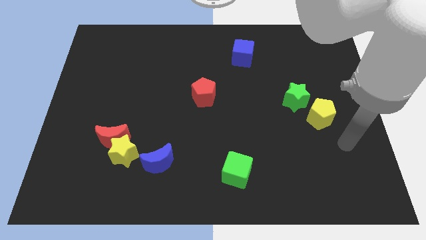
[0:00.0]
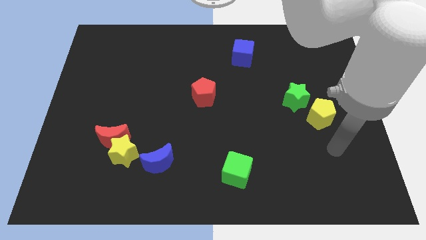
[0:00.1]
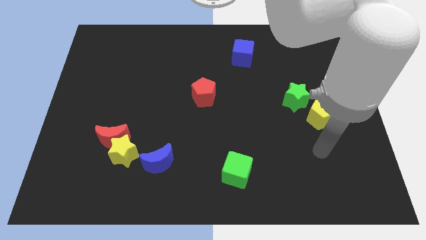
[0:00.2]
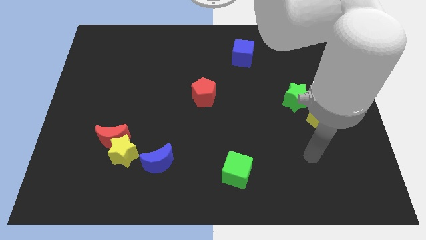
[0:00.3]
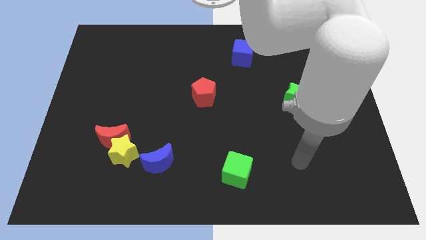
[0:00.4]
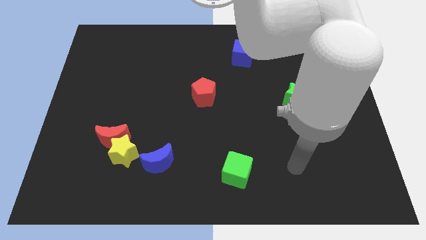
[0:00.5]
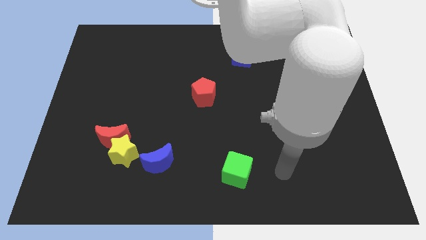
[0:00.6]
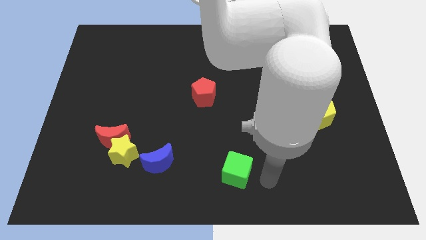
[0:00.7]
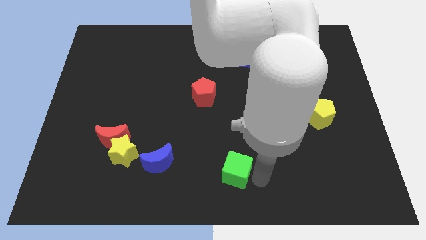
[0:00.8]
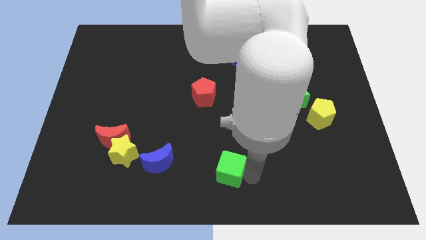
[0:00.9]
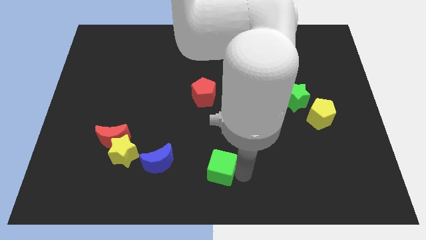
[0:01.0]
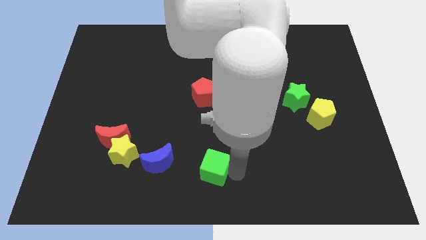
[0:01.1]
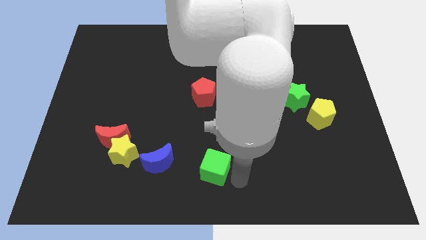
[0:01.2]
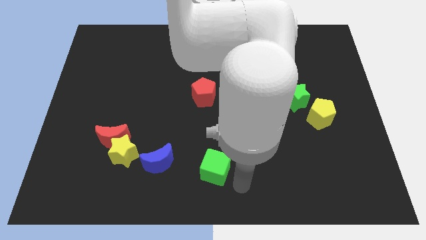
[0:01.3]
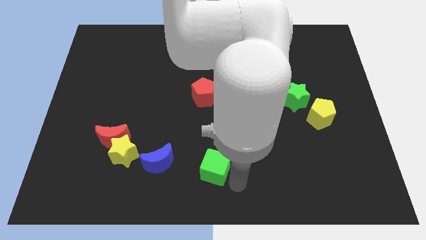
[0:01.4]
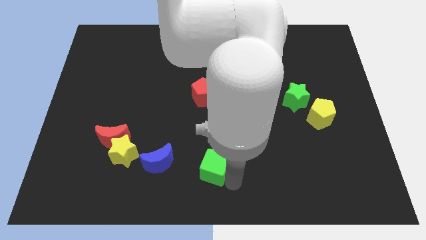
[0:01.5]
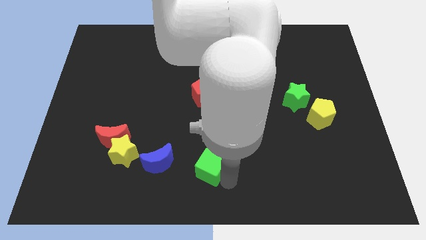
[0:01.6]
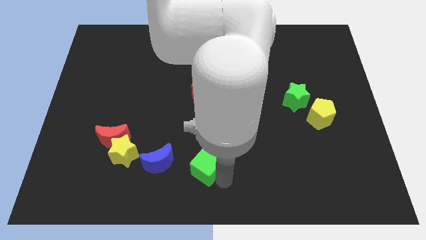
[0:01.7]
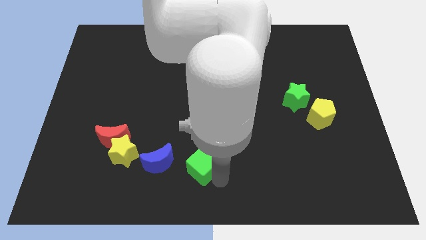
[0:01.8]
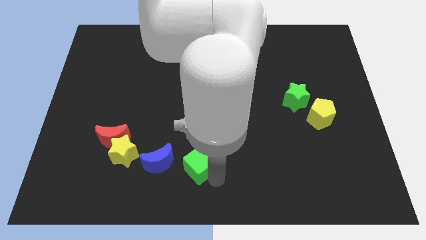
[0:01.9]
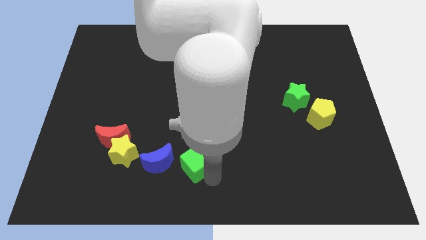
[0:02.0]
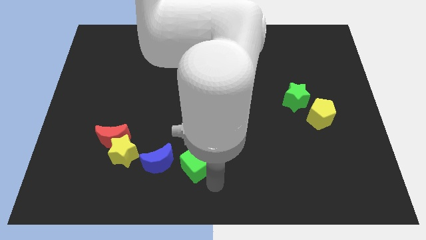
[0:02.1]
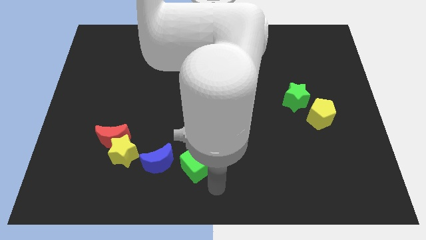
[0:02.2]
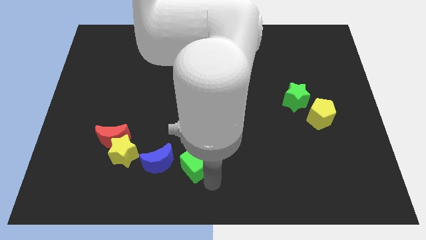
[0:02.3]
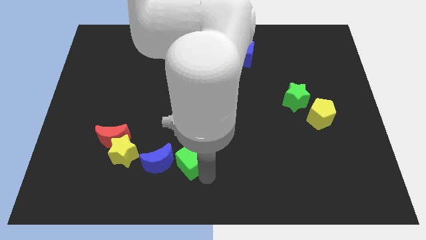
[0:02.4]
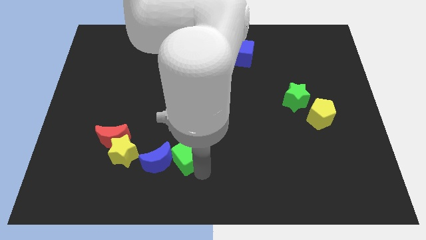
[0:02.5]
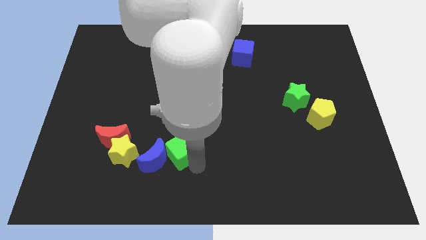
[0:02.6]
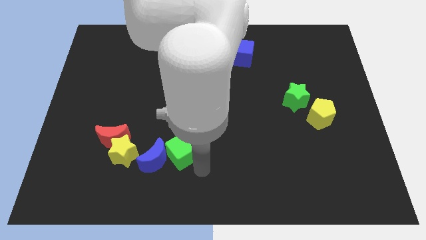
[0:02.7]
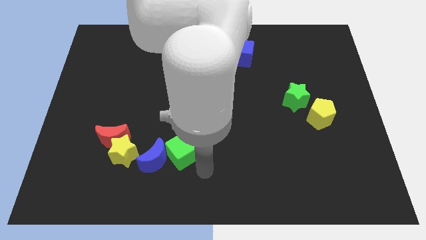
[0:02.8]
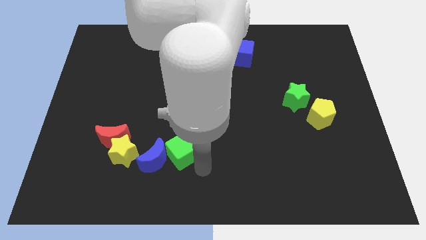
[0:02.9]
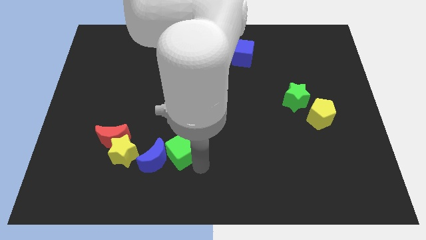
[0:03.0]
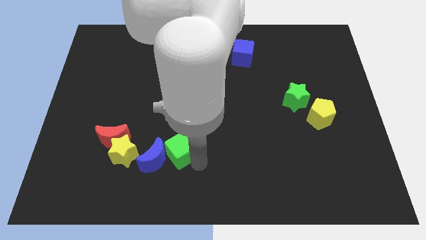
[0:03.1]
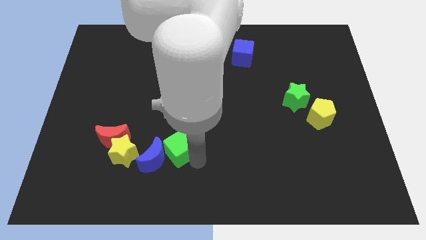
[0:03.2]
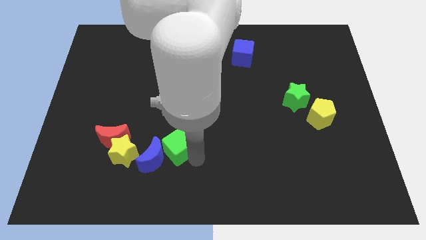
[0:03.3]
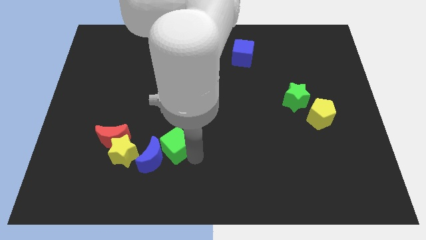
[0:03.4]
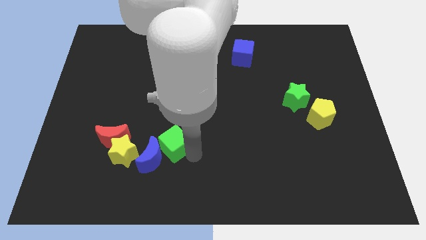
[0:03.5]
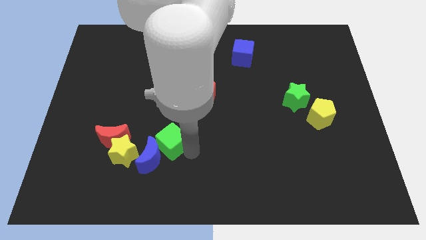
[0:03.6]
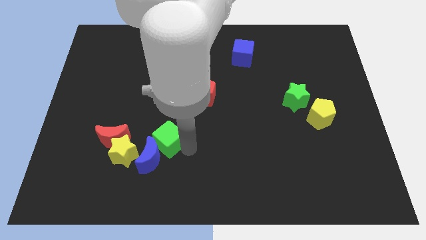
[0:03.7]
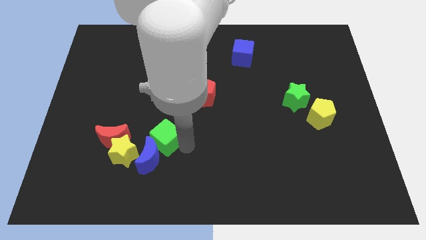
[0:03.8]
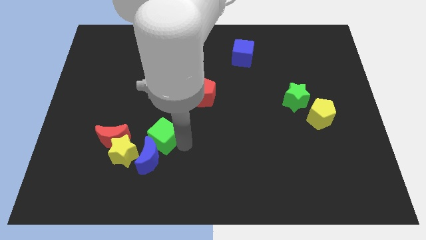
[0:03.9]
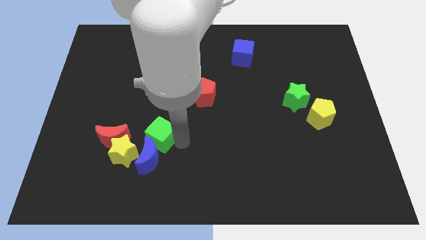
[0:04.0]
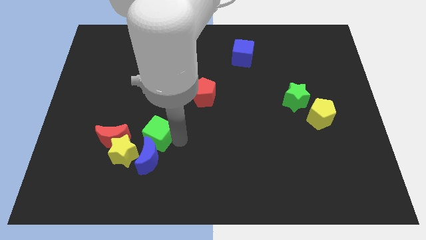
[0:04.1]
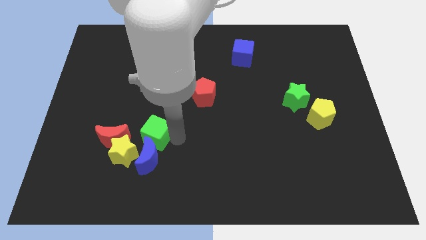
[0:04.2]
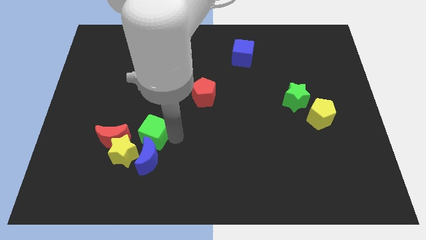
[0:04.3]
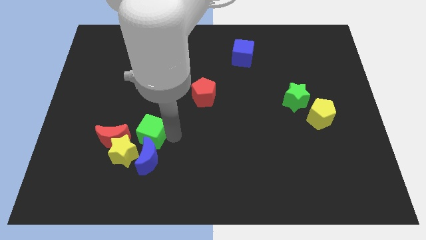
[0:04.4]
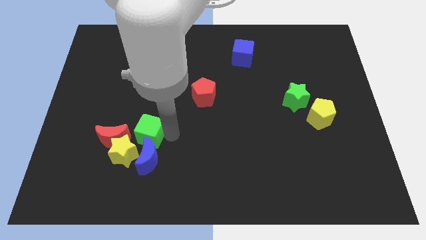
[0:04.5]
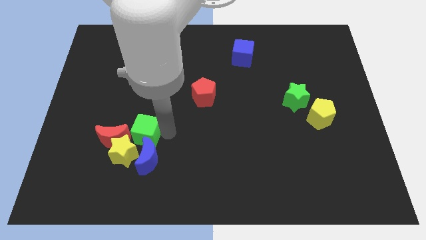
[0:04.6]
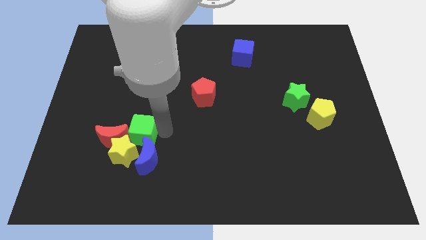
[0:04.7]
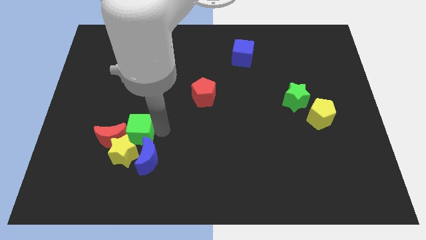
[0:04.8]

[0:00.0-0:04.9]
move the green cube to the red moon

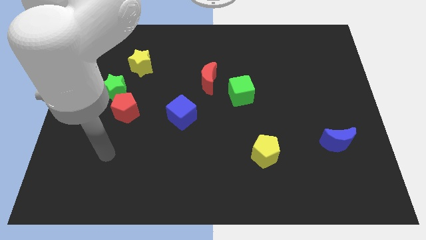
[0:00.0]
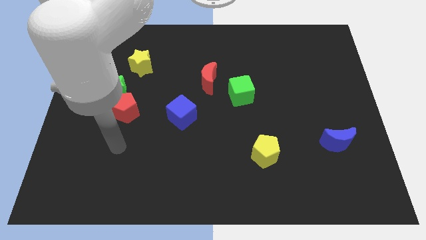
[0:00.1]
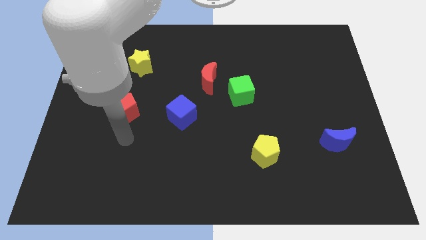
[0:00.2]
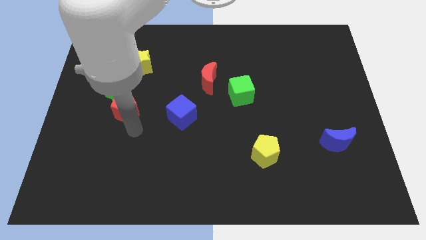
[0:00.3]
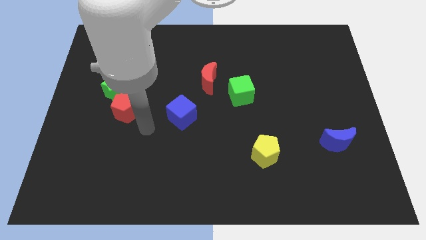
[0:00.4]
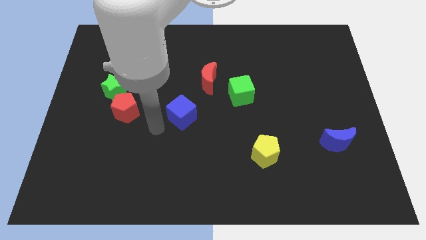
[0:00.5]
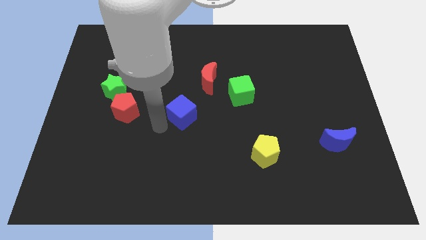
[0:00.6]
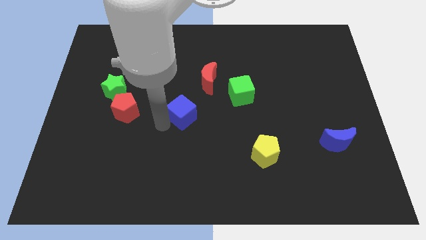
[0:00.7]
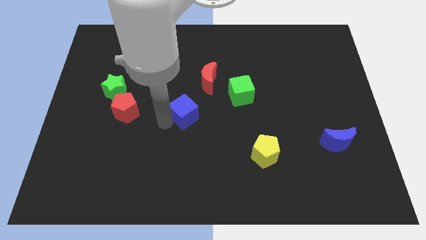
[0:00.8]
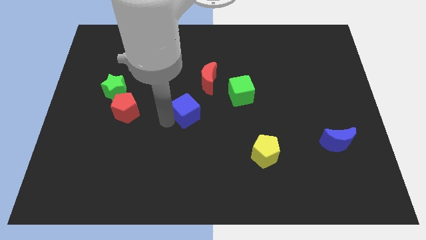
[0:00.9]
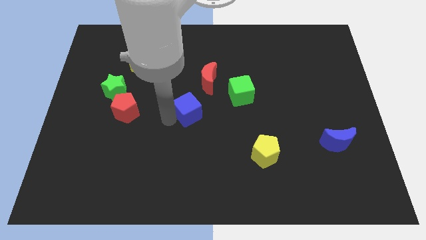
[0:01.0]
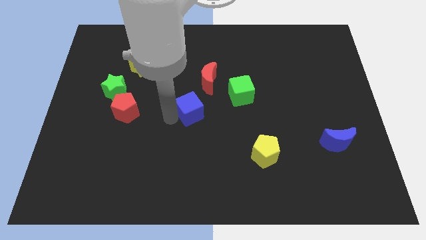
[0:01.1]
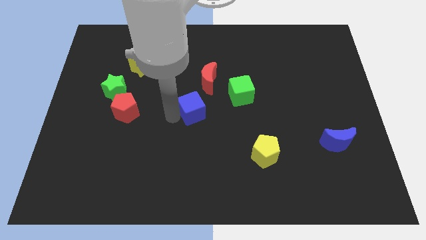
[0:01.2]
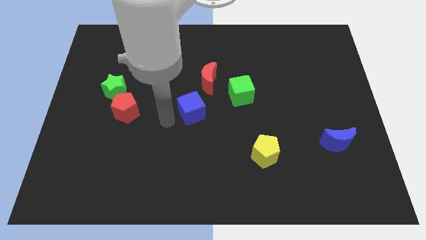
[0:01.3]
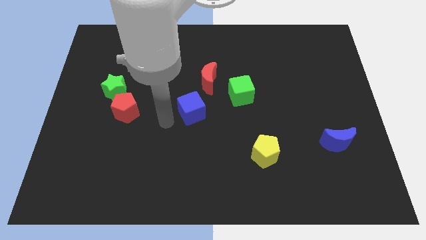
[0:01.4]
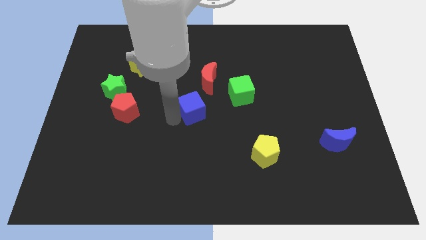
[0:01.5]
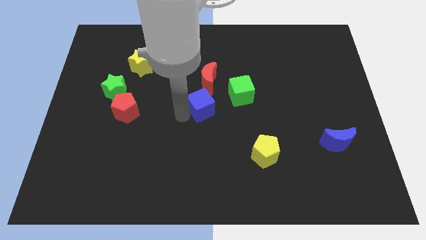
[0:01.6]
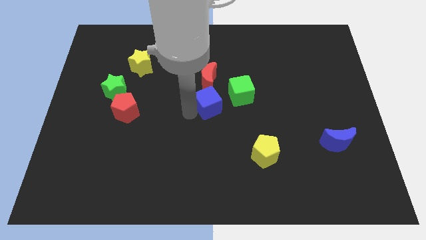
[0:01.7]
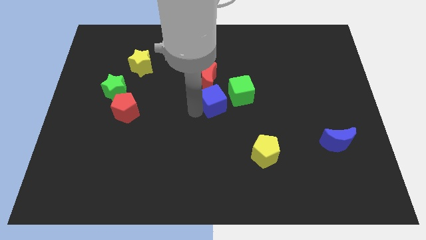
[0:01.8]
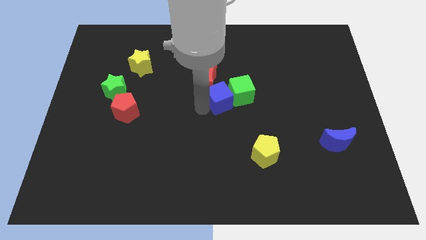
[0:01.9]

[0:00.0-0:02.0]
slide the blue cube towards the green cube

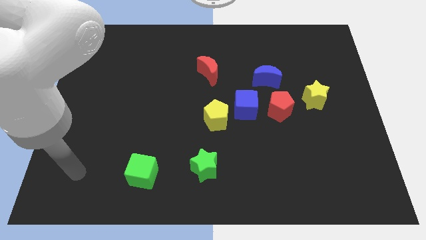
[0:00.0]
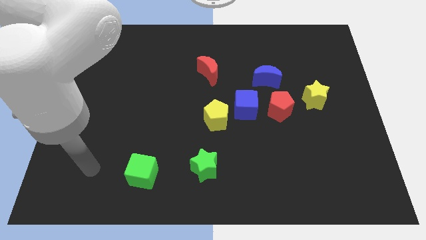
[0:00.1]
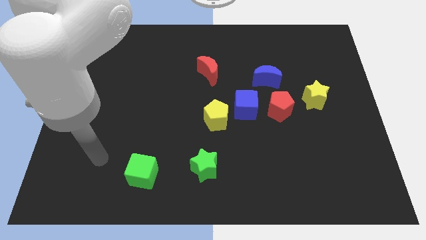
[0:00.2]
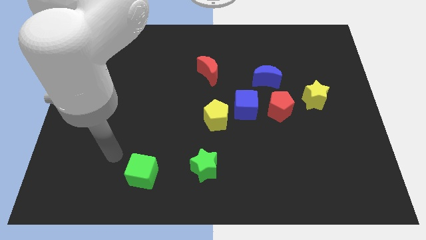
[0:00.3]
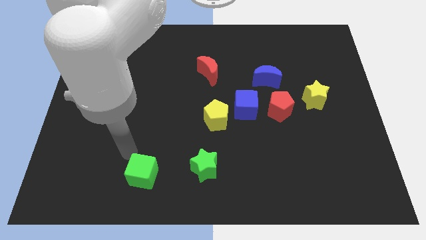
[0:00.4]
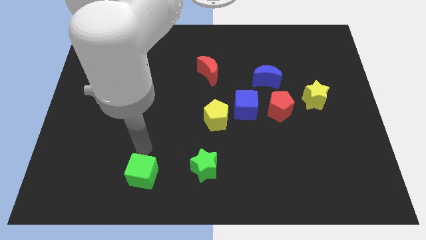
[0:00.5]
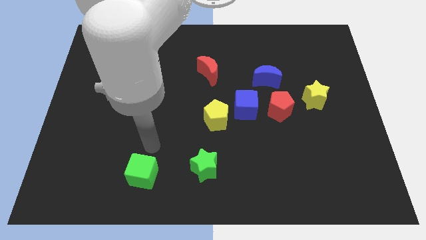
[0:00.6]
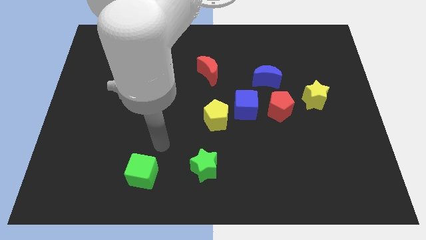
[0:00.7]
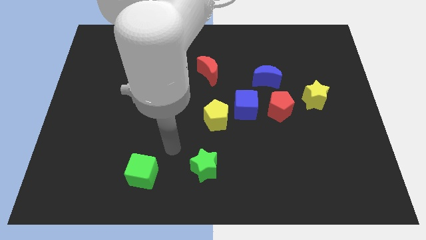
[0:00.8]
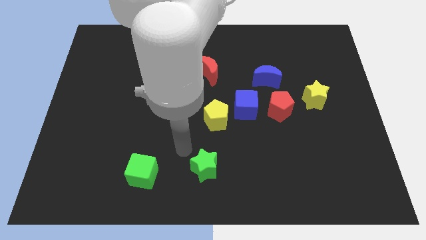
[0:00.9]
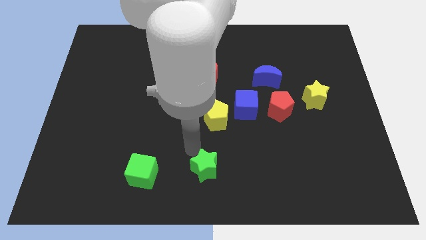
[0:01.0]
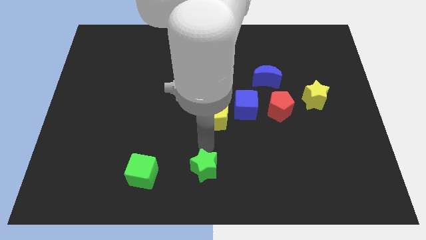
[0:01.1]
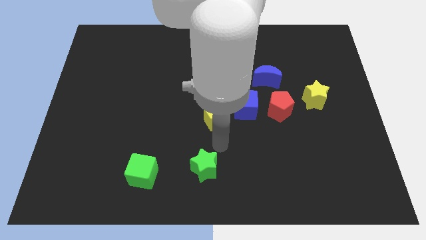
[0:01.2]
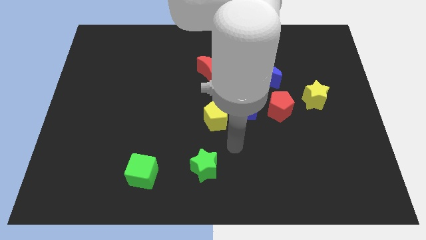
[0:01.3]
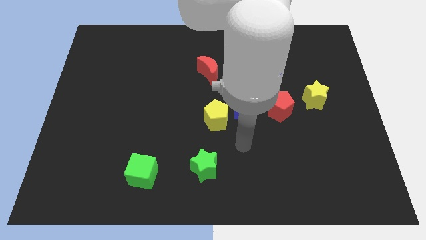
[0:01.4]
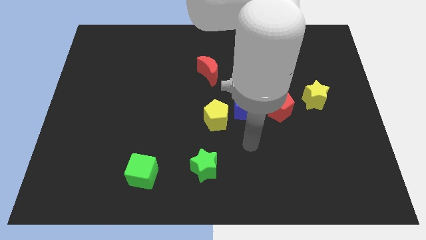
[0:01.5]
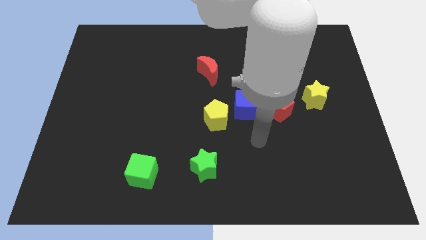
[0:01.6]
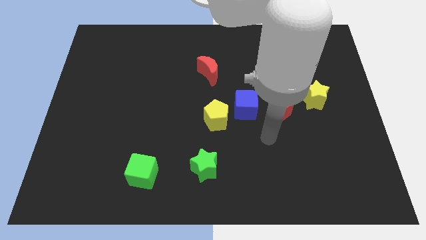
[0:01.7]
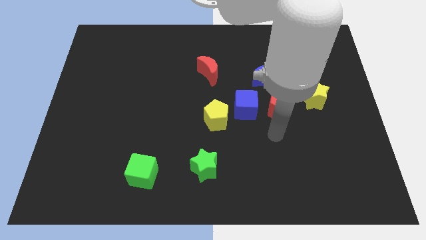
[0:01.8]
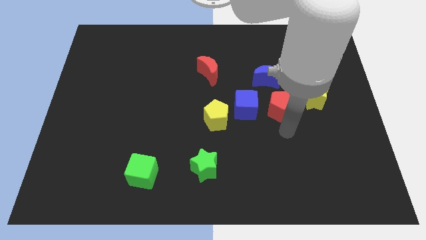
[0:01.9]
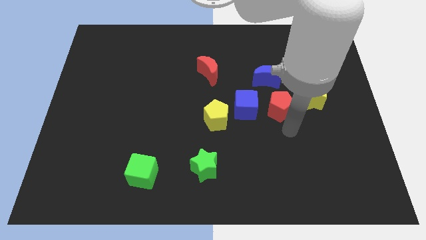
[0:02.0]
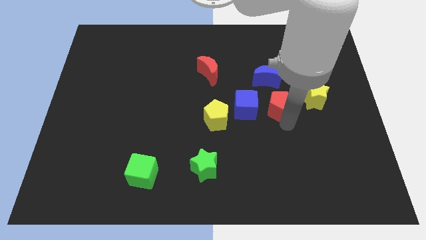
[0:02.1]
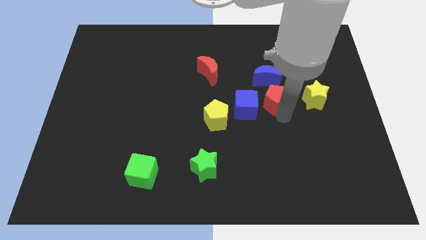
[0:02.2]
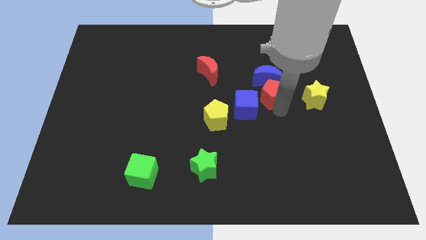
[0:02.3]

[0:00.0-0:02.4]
put the red pentagon next to the blue moon
